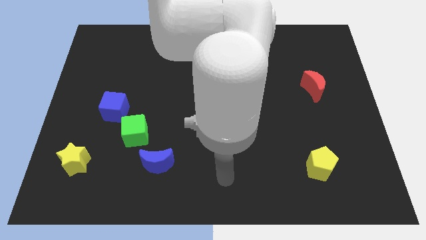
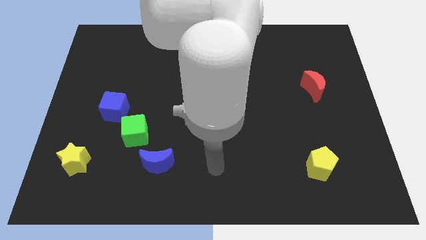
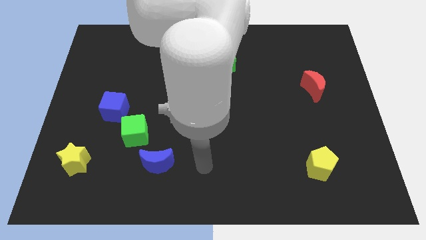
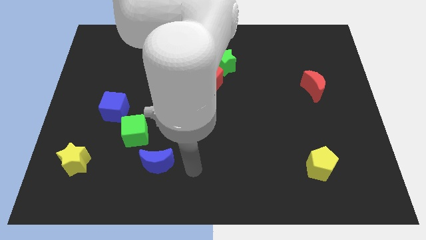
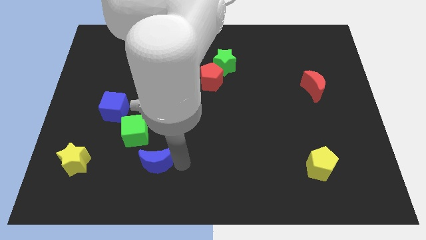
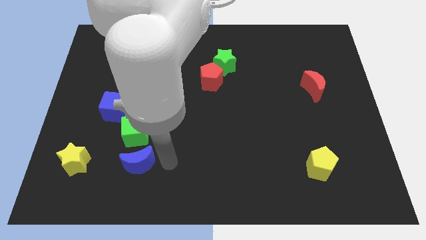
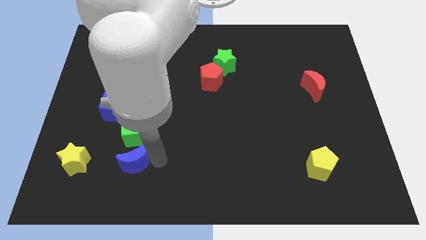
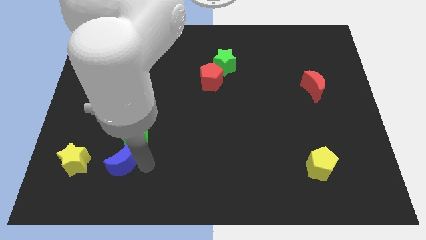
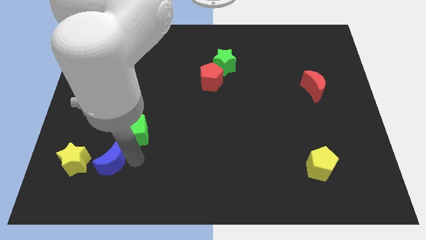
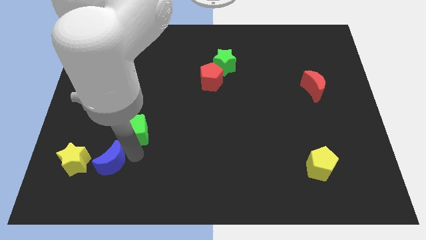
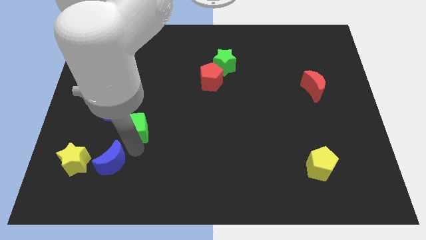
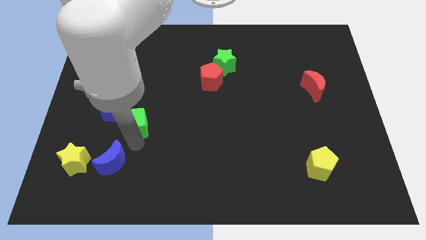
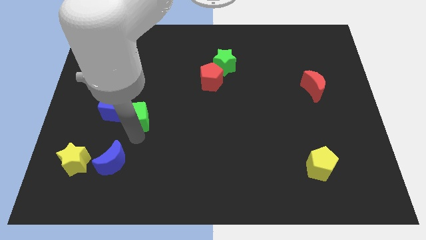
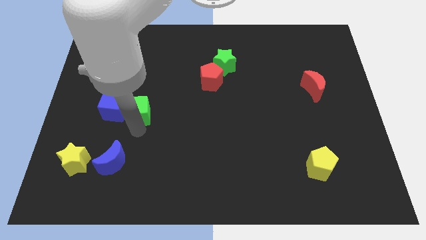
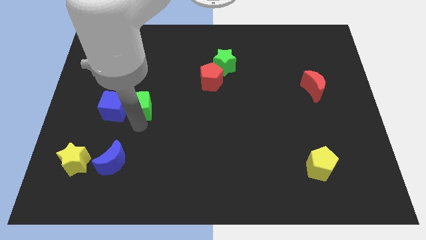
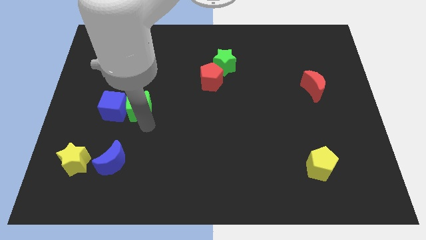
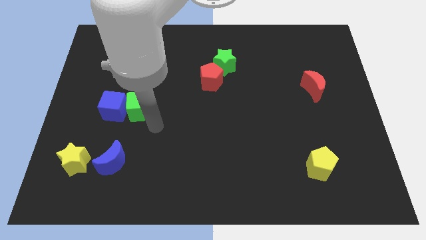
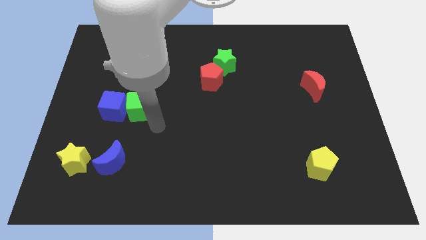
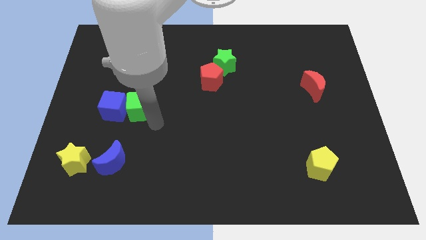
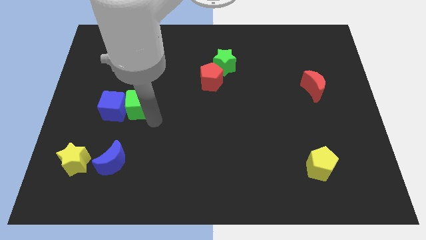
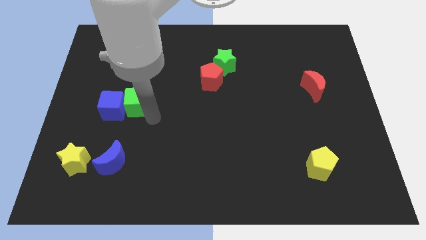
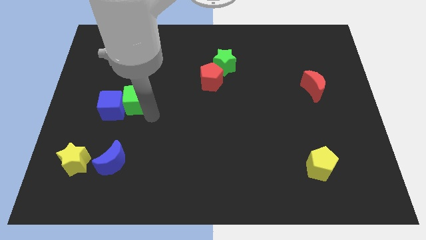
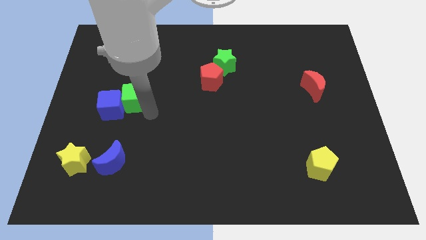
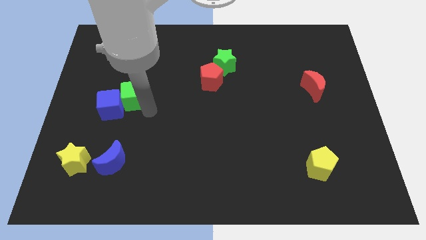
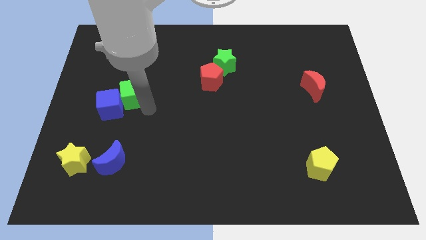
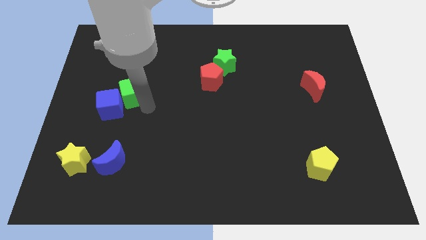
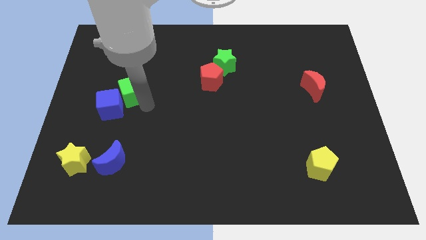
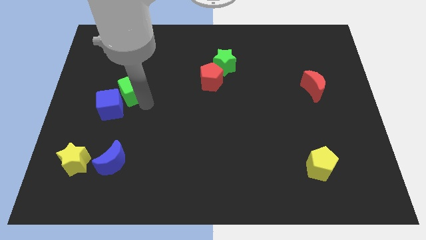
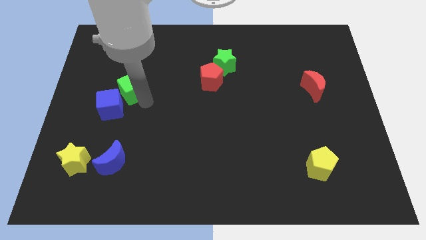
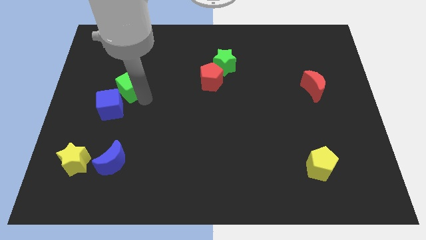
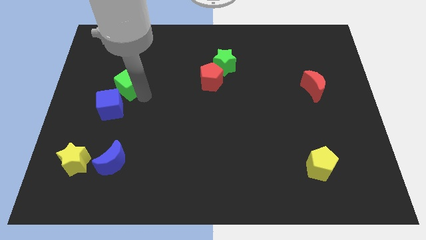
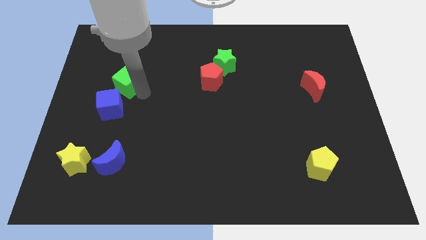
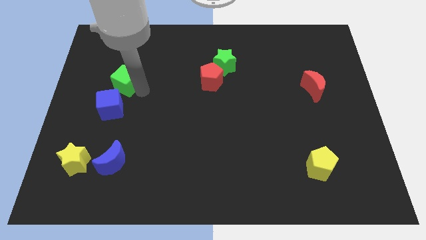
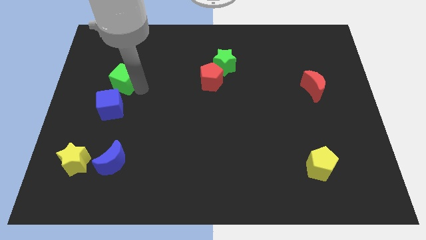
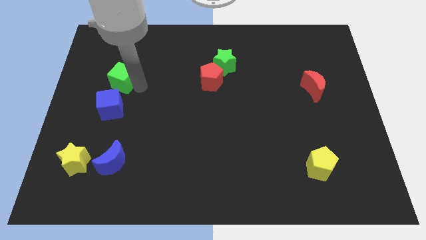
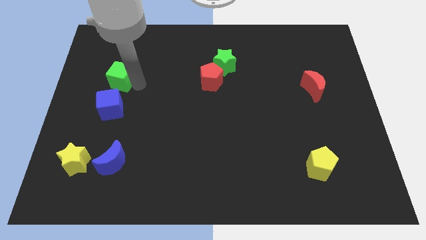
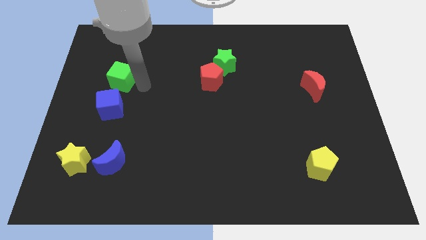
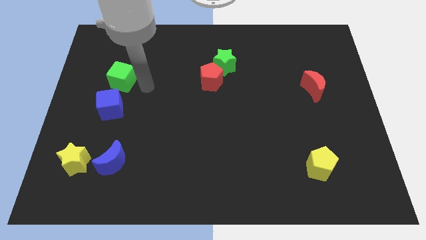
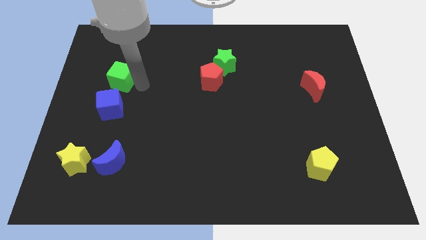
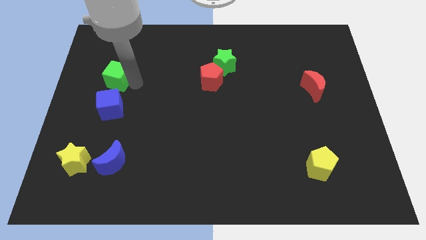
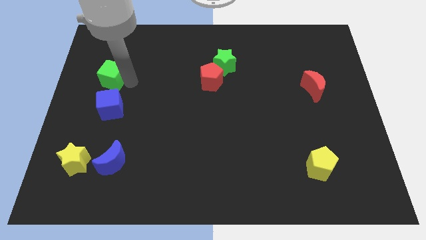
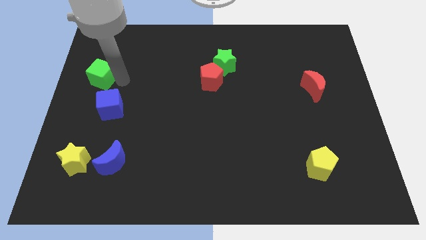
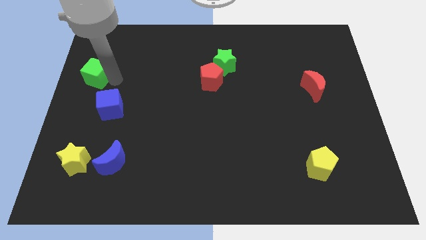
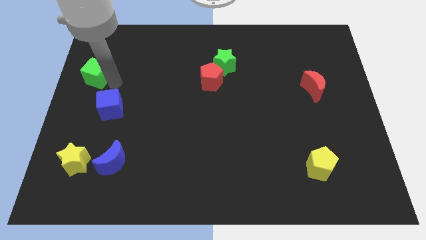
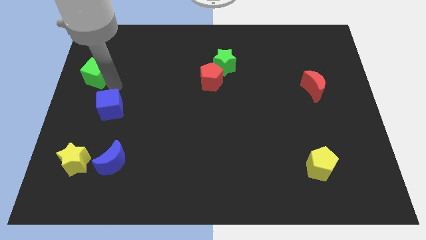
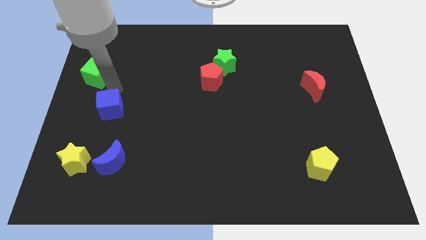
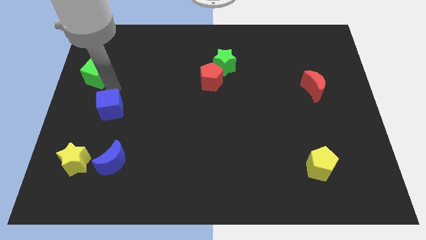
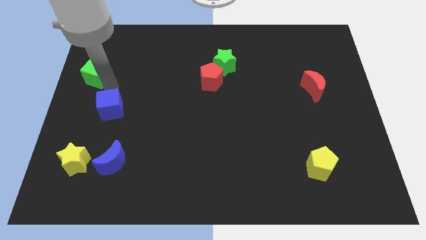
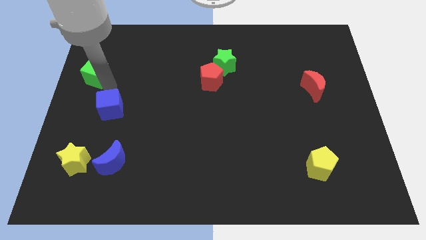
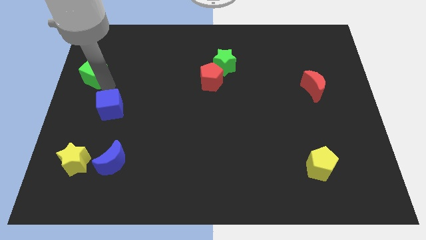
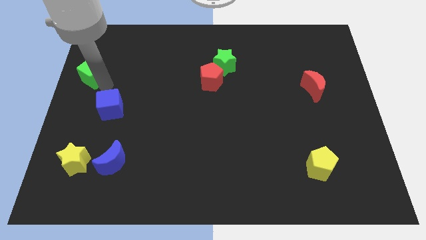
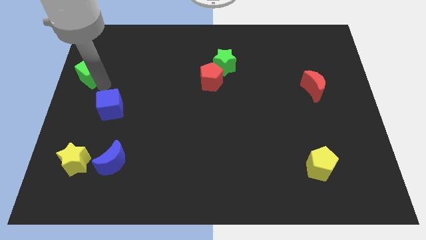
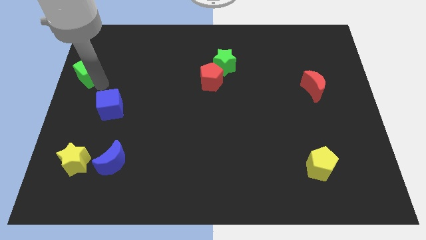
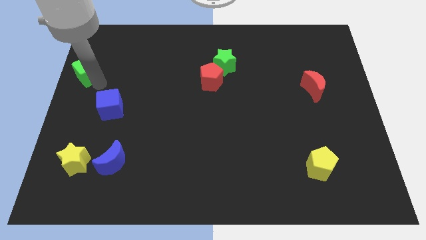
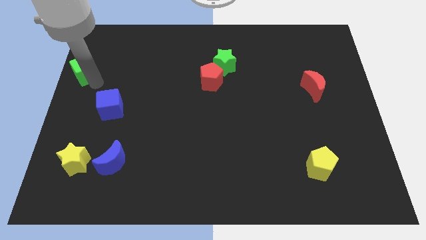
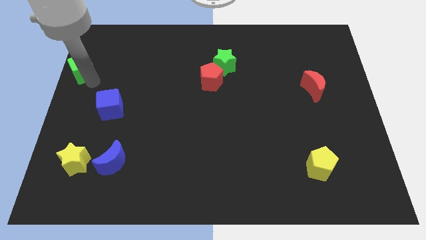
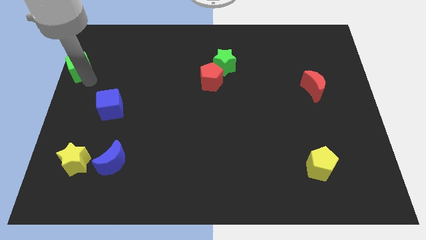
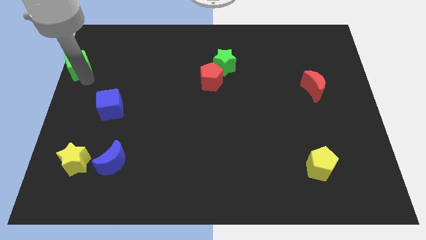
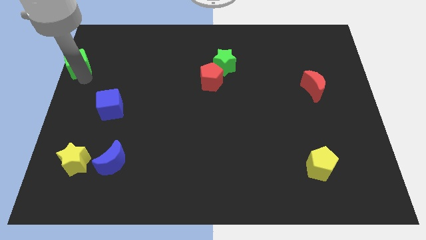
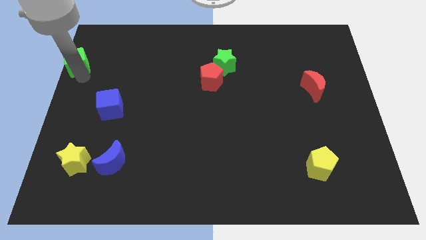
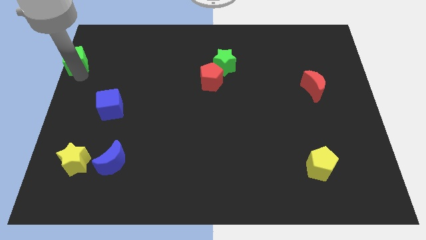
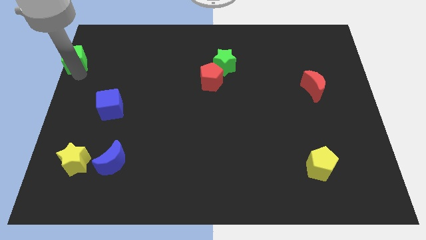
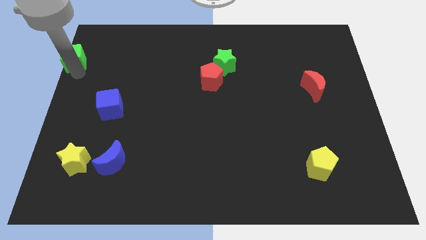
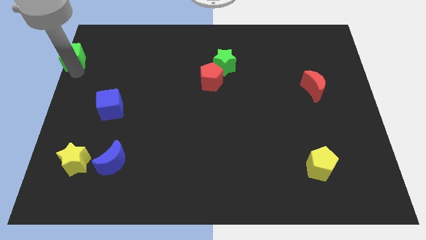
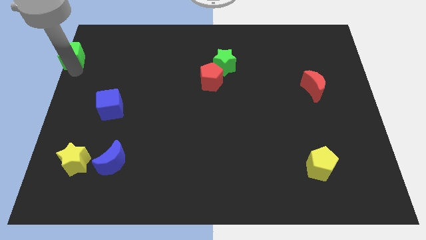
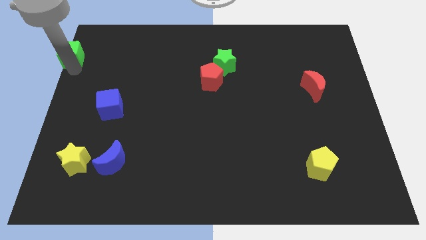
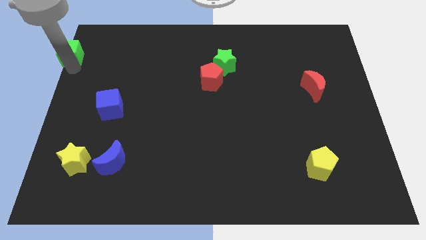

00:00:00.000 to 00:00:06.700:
slide the green cube to the top left
